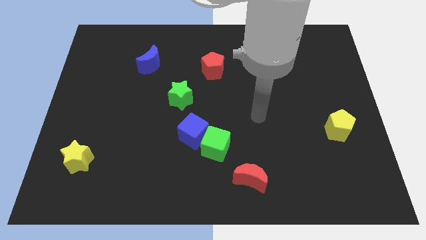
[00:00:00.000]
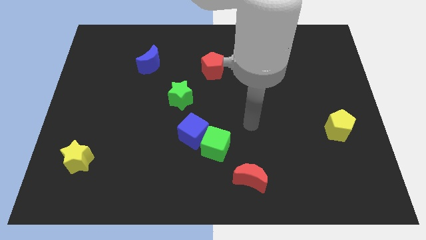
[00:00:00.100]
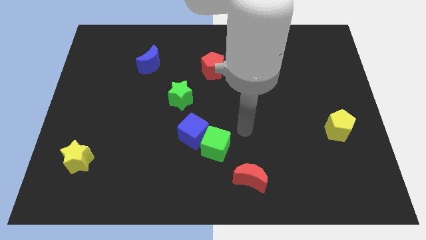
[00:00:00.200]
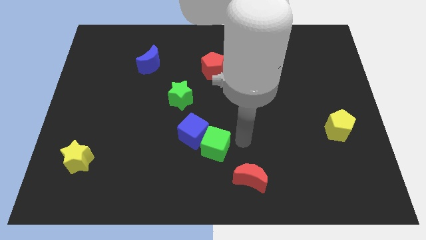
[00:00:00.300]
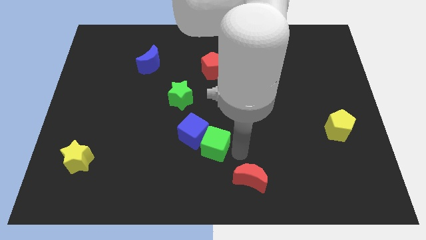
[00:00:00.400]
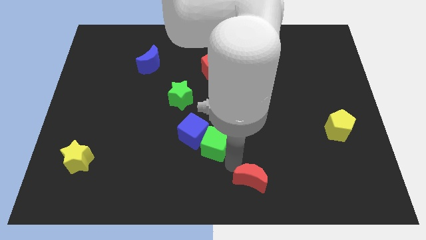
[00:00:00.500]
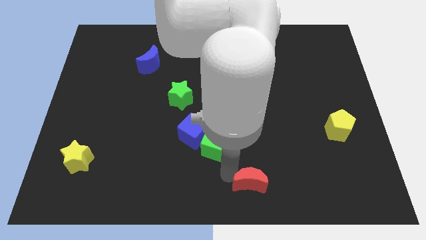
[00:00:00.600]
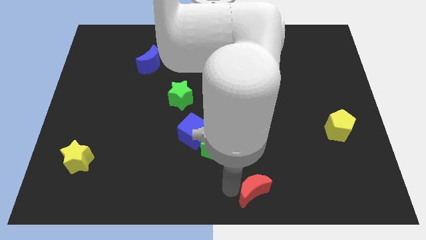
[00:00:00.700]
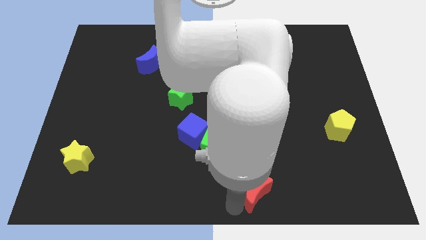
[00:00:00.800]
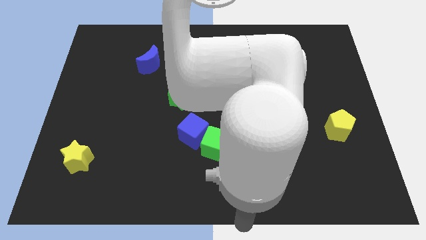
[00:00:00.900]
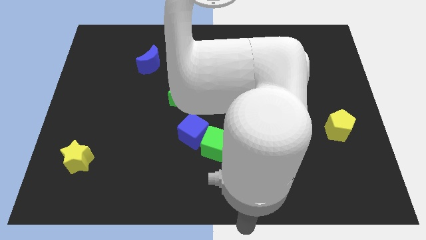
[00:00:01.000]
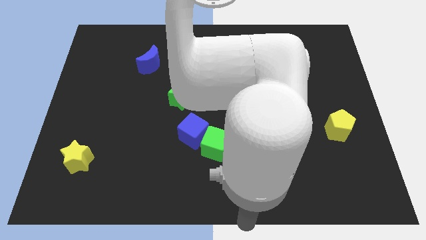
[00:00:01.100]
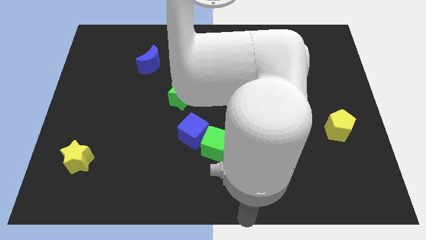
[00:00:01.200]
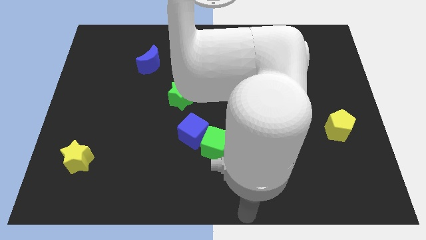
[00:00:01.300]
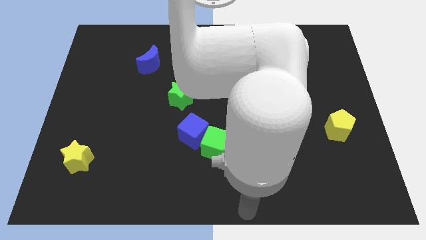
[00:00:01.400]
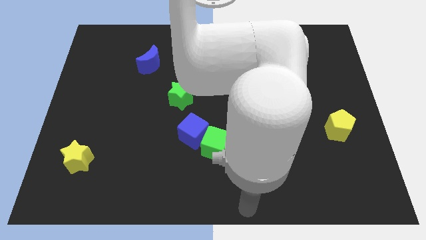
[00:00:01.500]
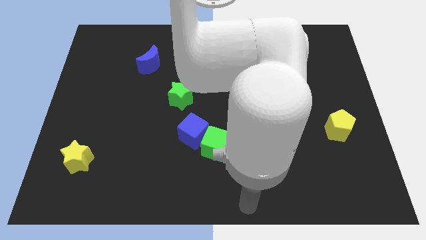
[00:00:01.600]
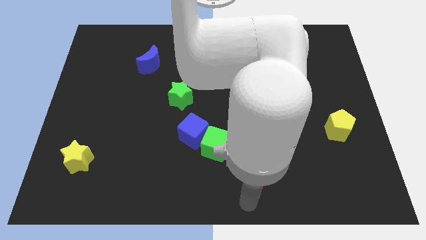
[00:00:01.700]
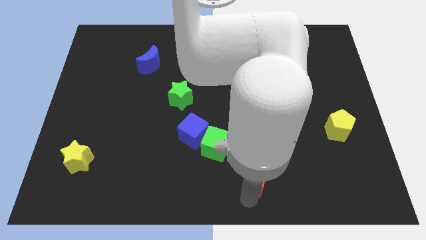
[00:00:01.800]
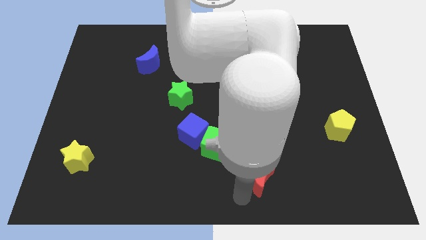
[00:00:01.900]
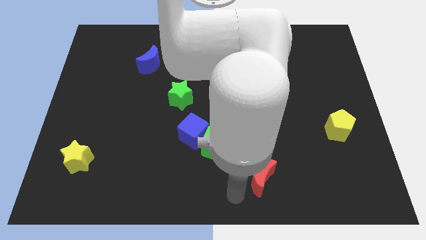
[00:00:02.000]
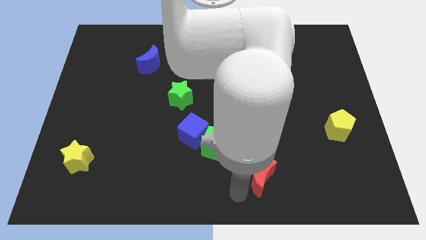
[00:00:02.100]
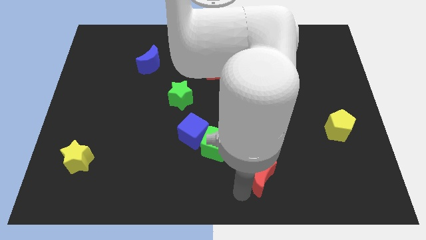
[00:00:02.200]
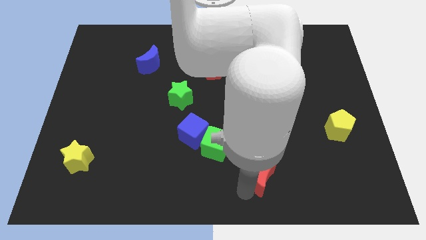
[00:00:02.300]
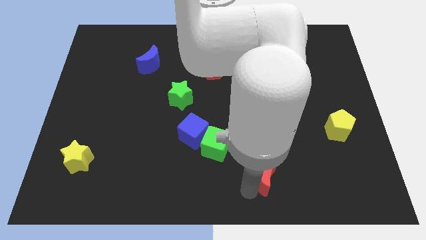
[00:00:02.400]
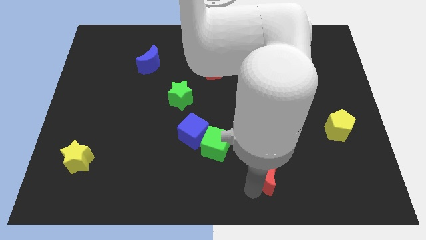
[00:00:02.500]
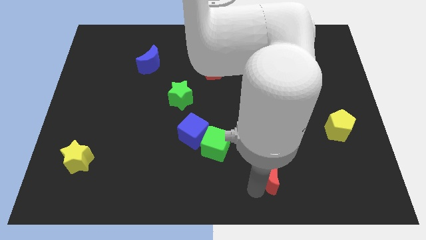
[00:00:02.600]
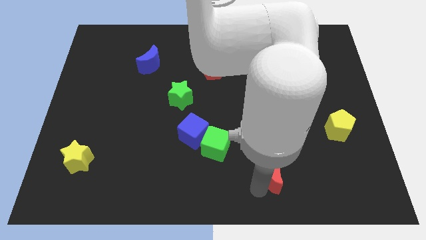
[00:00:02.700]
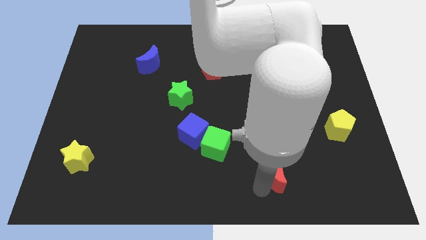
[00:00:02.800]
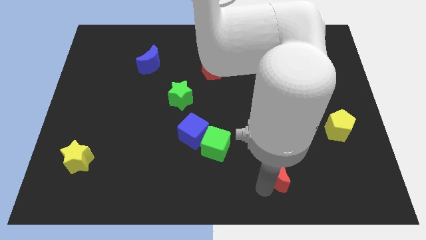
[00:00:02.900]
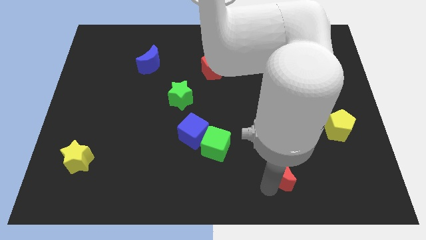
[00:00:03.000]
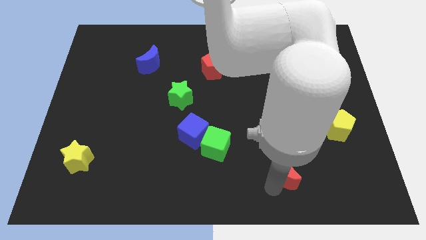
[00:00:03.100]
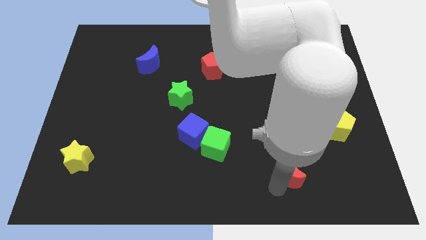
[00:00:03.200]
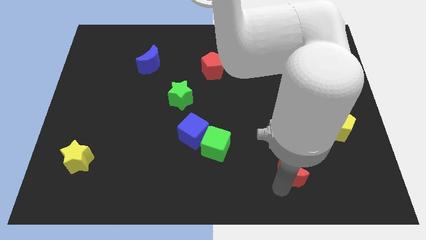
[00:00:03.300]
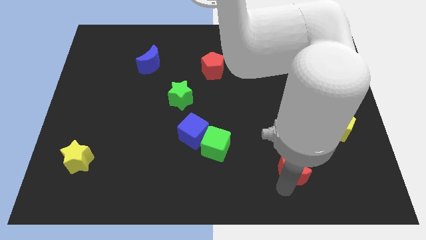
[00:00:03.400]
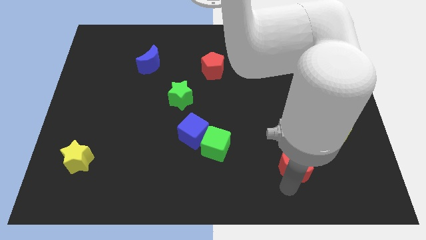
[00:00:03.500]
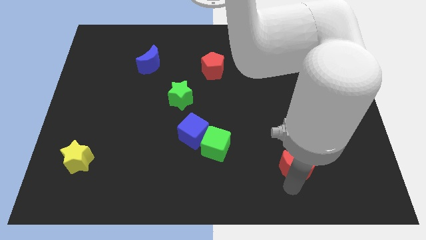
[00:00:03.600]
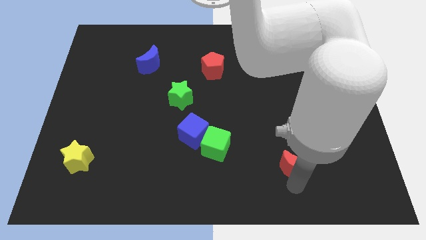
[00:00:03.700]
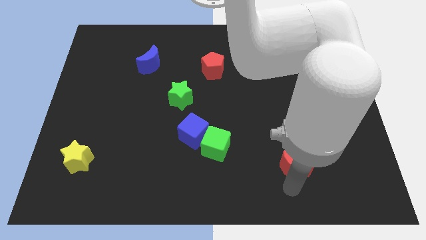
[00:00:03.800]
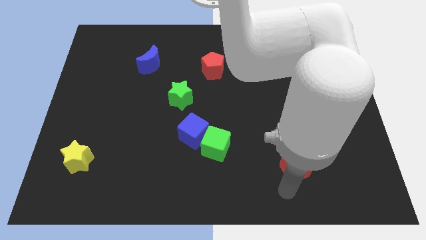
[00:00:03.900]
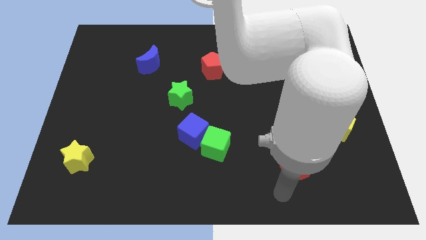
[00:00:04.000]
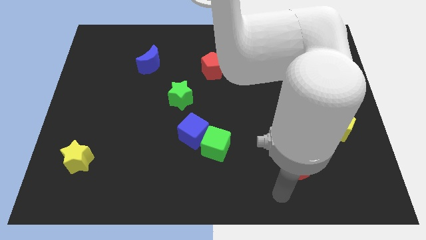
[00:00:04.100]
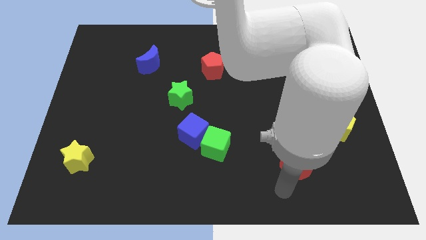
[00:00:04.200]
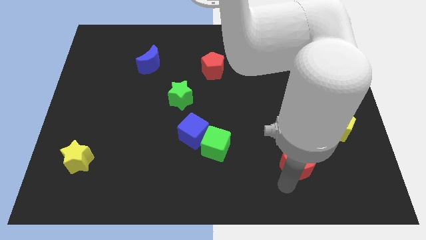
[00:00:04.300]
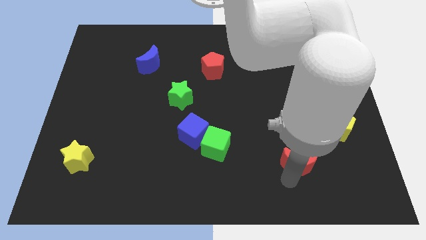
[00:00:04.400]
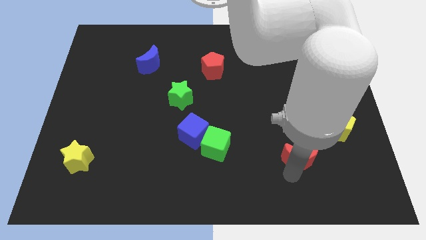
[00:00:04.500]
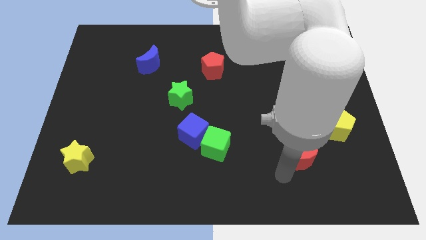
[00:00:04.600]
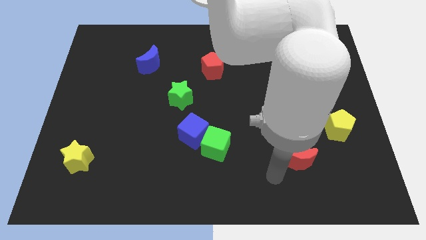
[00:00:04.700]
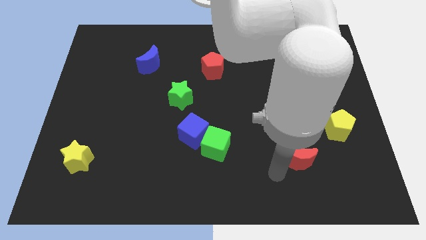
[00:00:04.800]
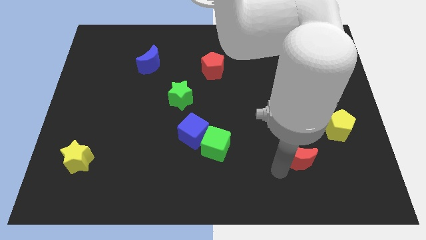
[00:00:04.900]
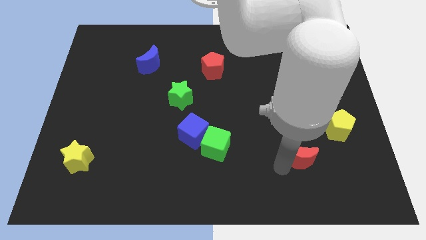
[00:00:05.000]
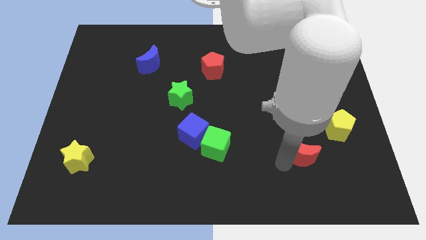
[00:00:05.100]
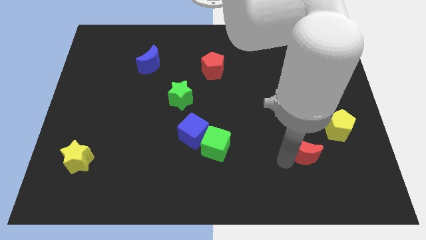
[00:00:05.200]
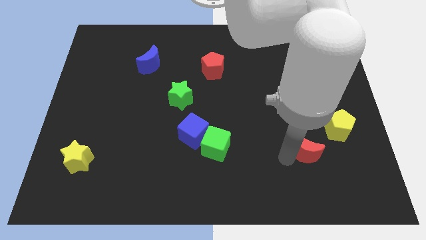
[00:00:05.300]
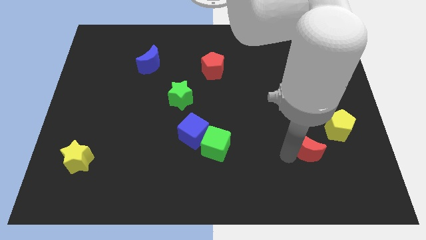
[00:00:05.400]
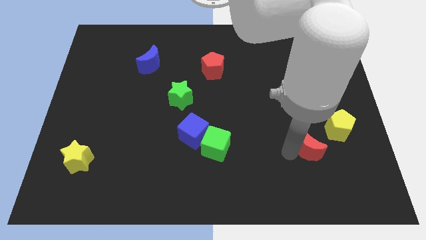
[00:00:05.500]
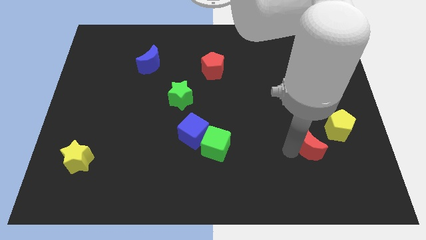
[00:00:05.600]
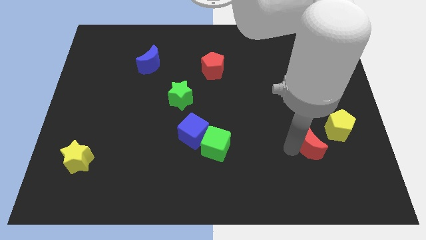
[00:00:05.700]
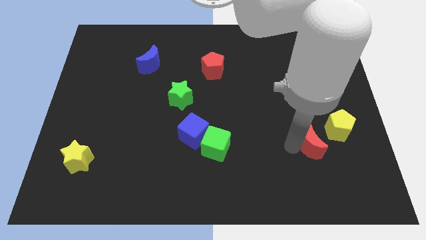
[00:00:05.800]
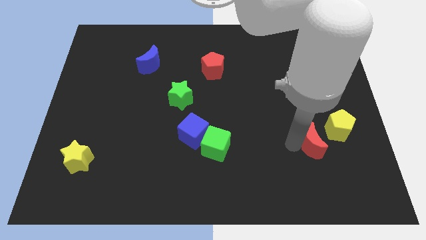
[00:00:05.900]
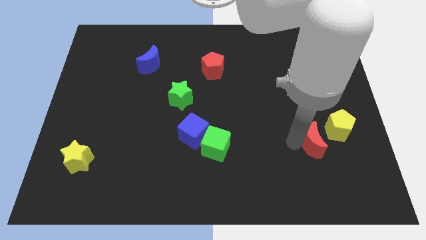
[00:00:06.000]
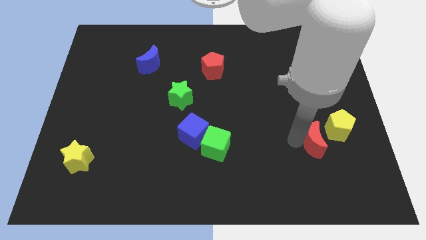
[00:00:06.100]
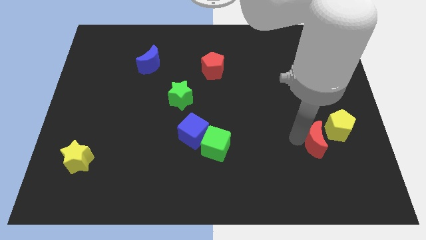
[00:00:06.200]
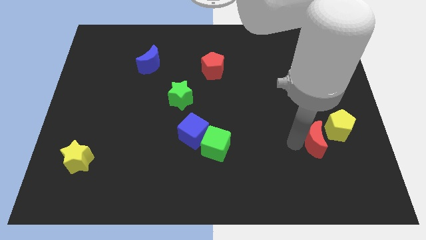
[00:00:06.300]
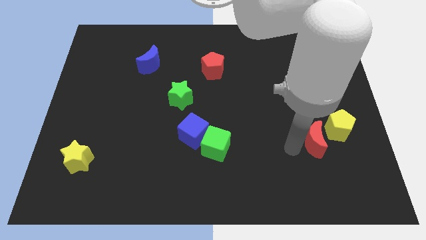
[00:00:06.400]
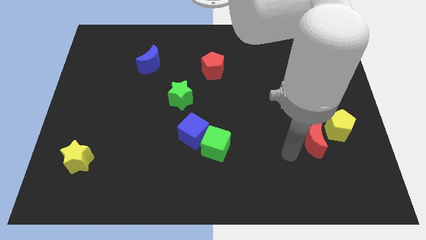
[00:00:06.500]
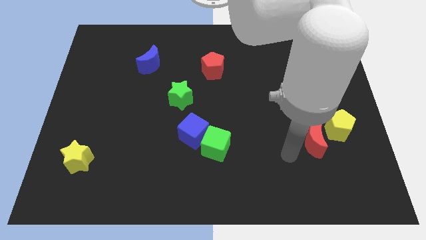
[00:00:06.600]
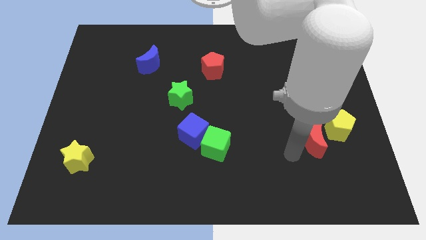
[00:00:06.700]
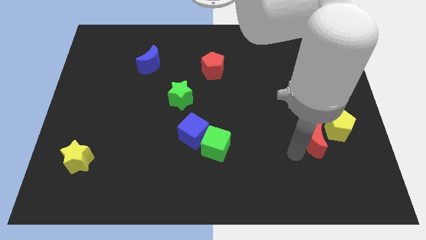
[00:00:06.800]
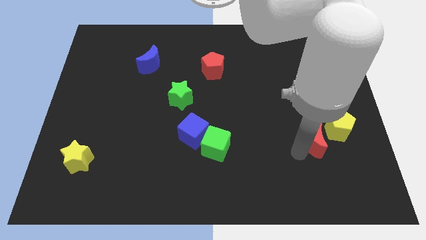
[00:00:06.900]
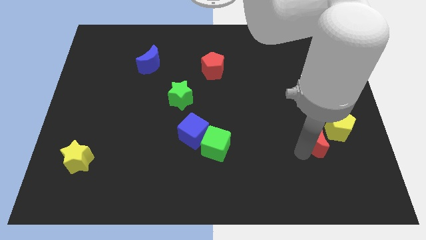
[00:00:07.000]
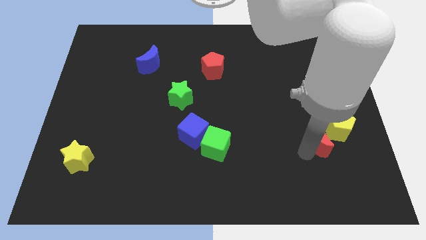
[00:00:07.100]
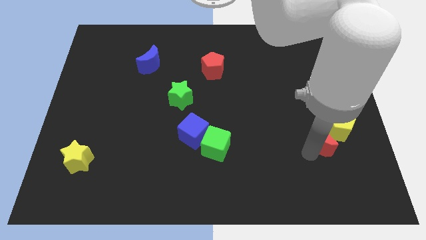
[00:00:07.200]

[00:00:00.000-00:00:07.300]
move the red moon close to the yellow pentagon
